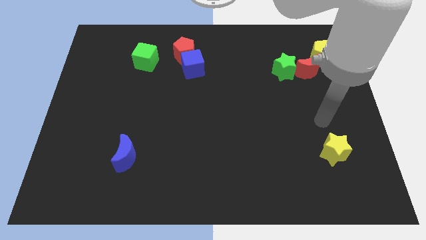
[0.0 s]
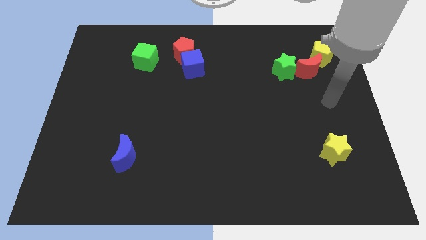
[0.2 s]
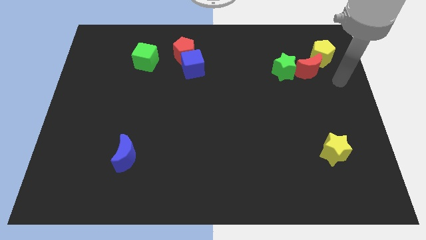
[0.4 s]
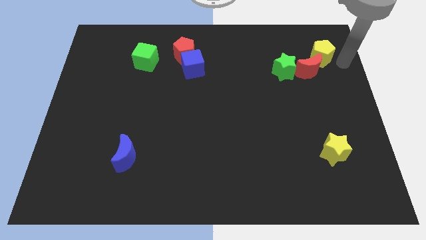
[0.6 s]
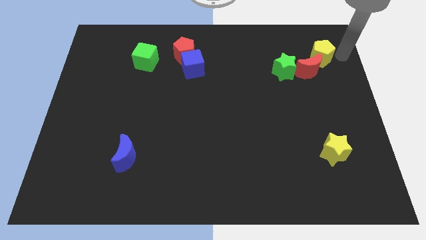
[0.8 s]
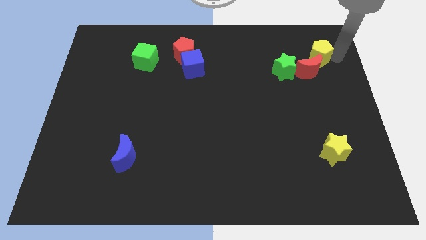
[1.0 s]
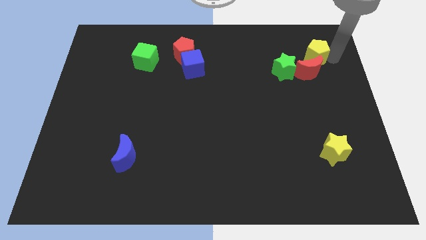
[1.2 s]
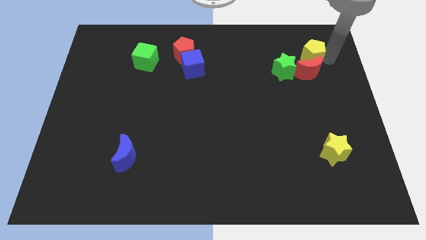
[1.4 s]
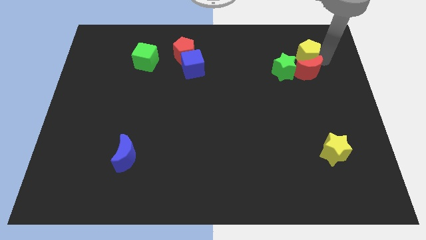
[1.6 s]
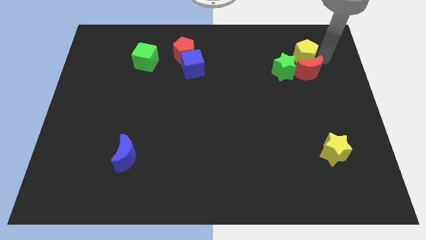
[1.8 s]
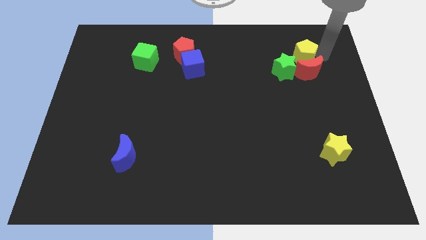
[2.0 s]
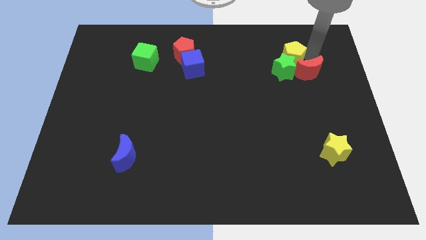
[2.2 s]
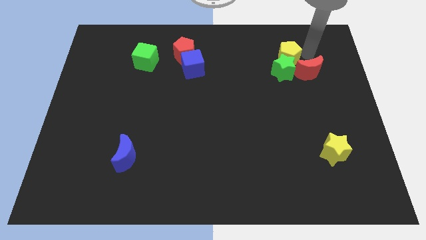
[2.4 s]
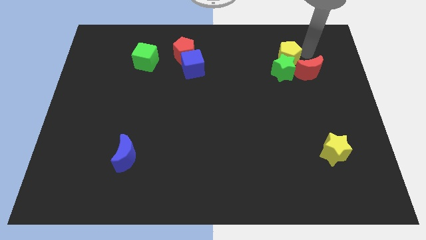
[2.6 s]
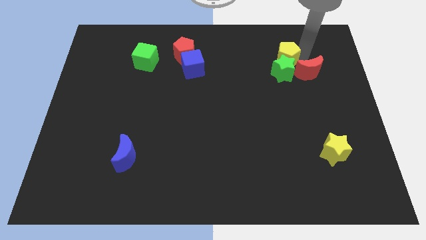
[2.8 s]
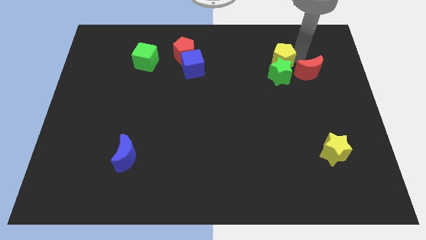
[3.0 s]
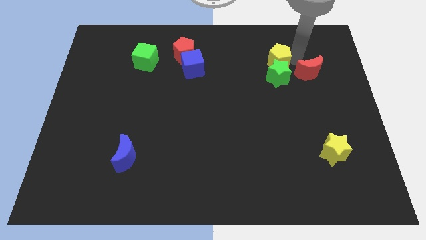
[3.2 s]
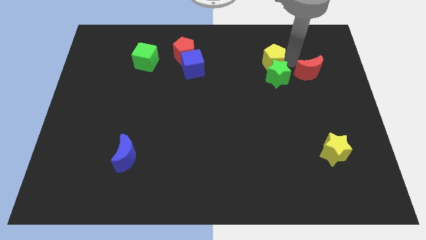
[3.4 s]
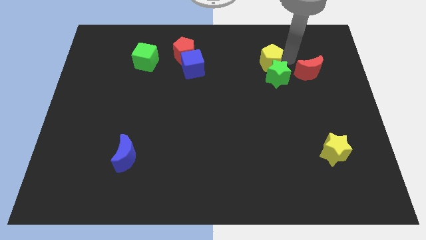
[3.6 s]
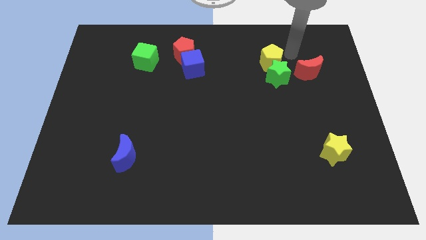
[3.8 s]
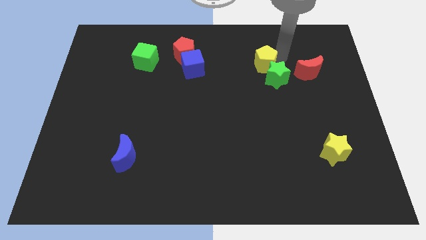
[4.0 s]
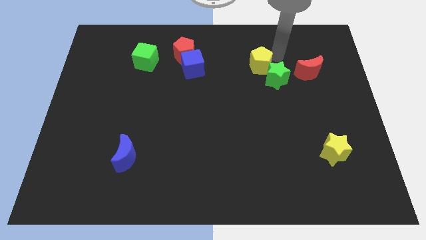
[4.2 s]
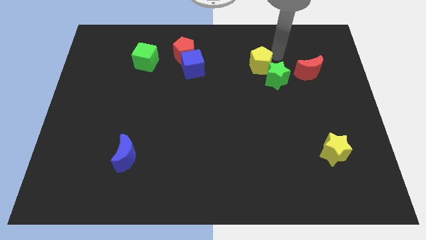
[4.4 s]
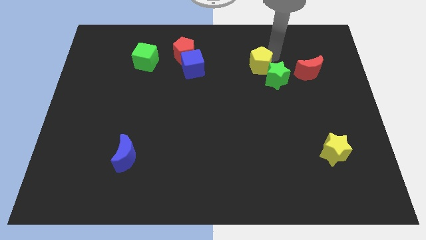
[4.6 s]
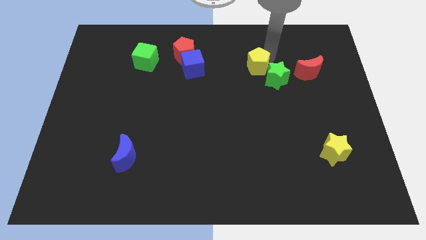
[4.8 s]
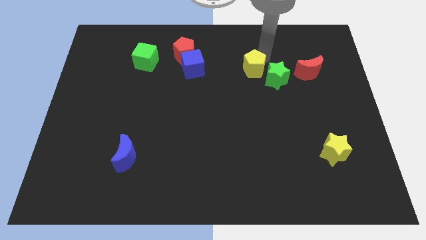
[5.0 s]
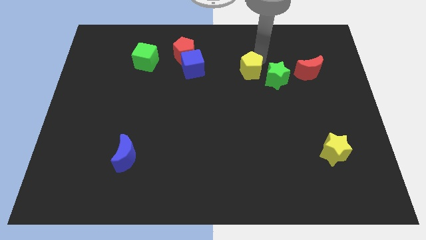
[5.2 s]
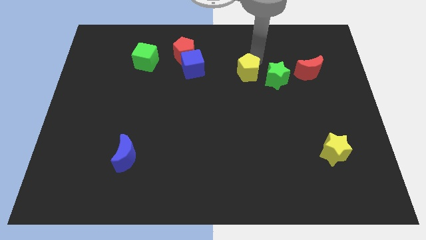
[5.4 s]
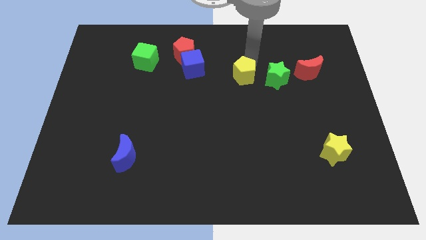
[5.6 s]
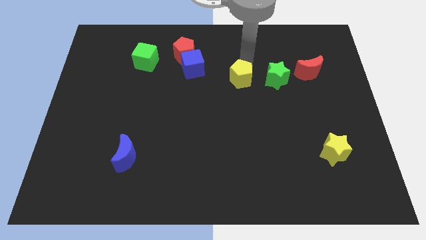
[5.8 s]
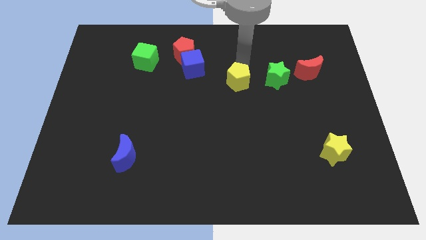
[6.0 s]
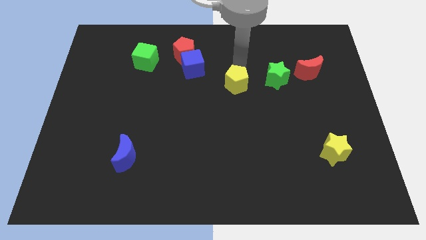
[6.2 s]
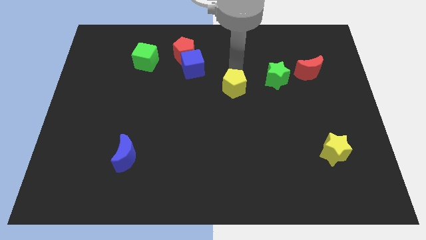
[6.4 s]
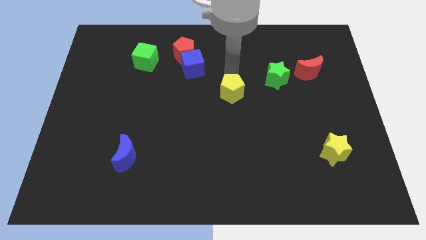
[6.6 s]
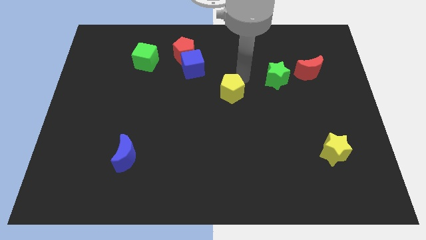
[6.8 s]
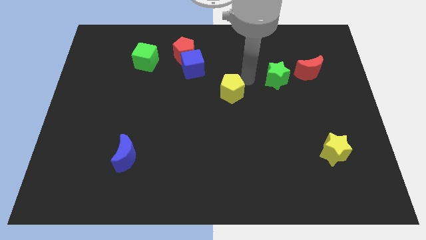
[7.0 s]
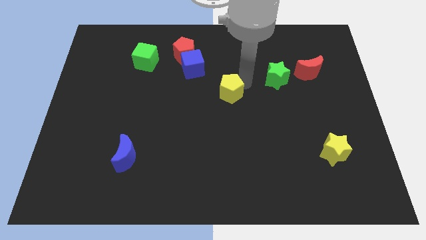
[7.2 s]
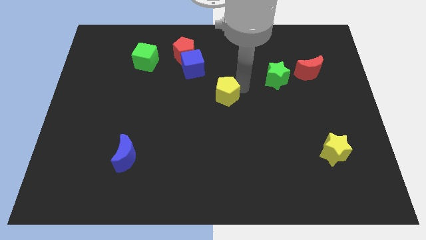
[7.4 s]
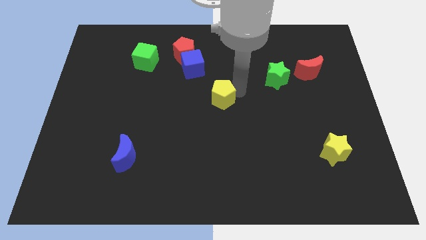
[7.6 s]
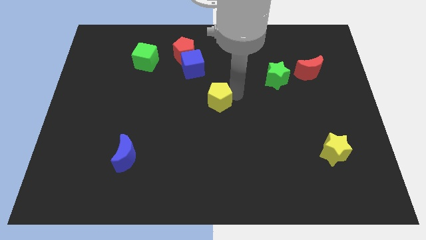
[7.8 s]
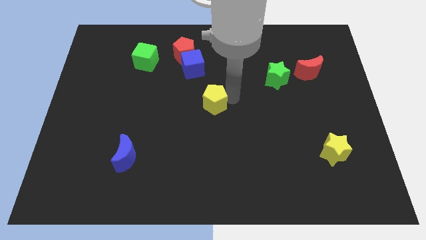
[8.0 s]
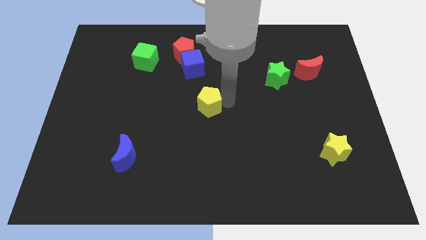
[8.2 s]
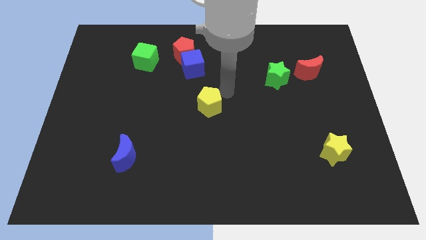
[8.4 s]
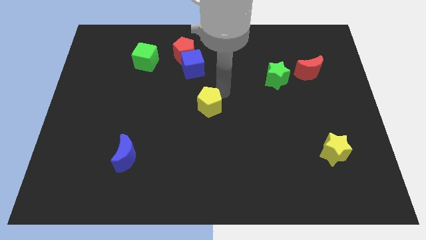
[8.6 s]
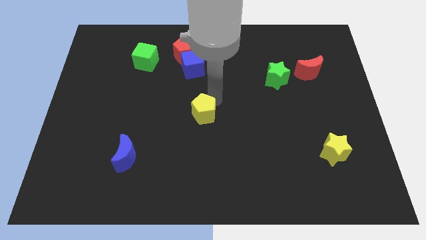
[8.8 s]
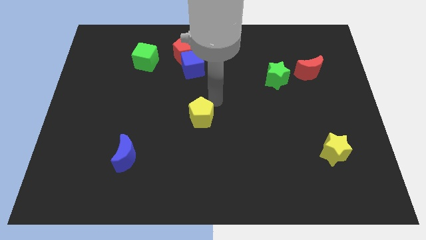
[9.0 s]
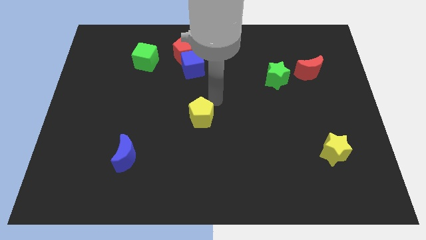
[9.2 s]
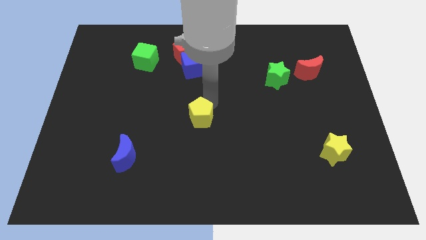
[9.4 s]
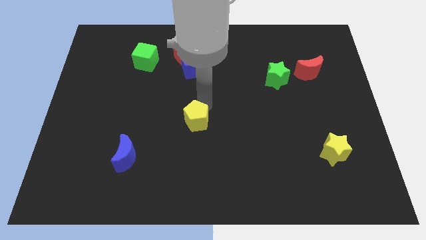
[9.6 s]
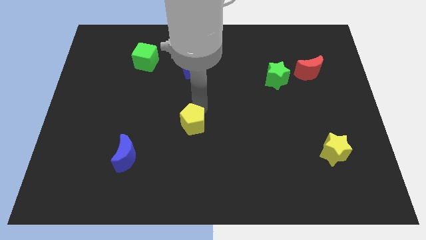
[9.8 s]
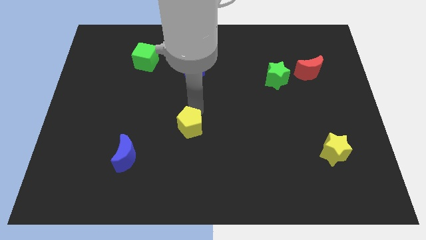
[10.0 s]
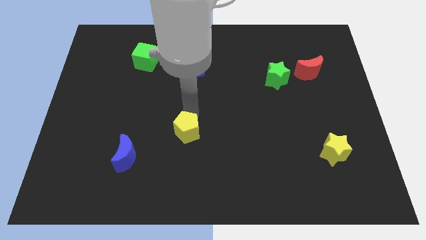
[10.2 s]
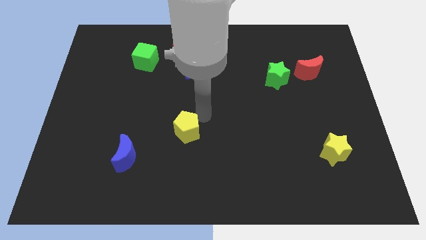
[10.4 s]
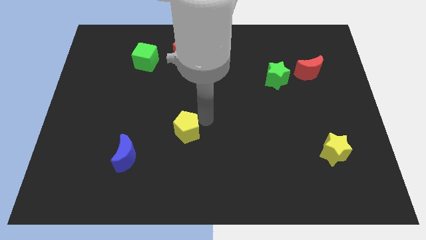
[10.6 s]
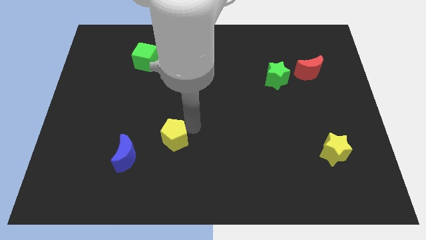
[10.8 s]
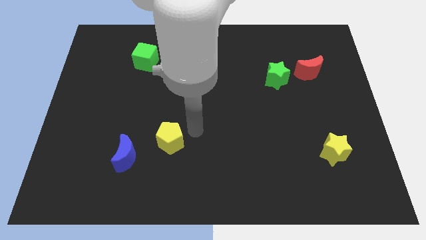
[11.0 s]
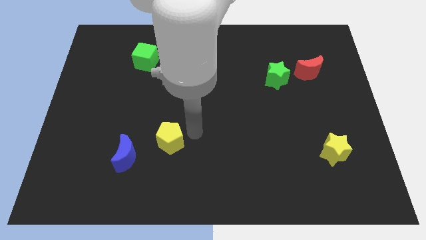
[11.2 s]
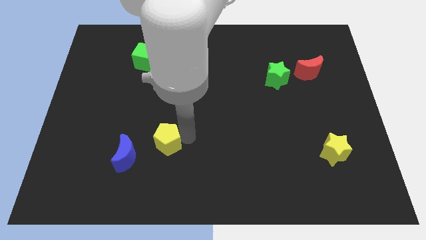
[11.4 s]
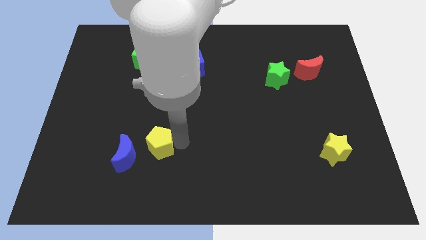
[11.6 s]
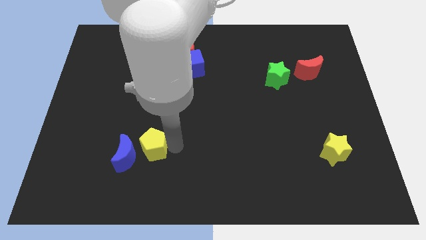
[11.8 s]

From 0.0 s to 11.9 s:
move the yellow pentagon close to the blue moon

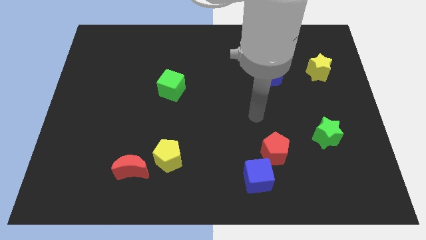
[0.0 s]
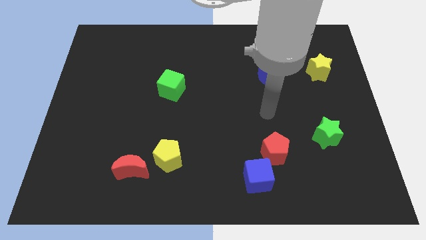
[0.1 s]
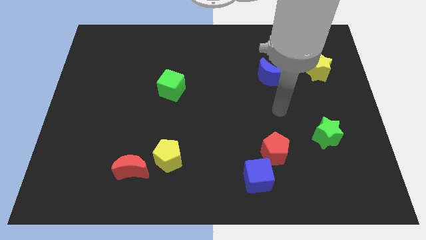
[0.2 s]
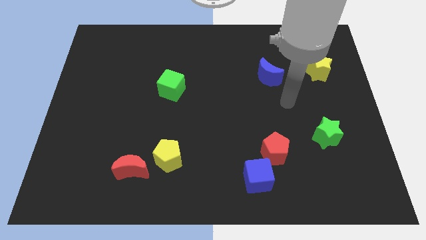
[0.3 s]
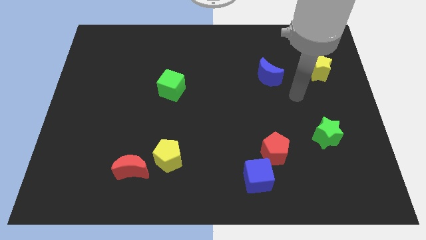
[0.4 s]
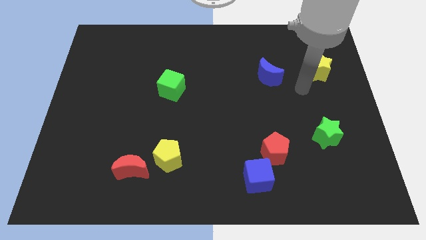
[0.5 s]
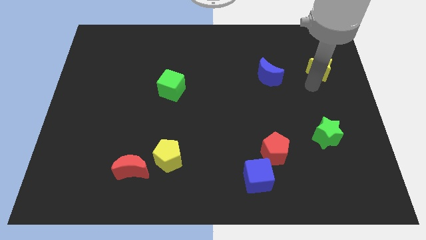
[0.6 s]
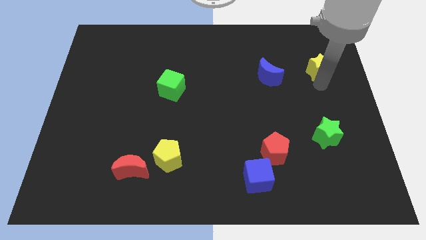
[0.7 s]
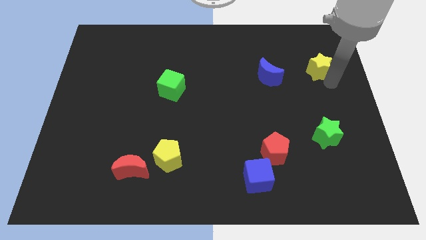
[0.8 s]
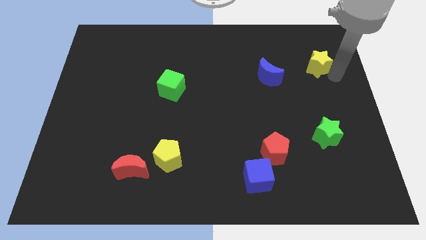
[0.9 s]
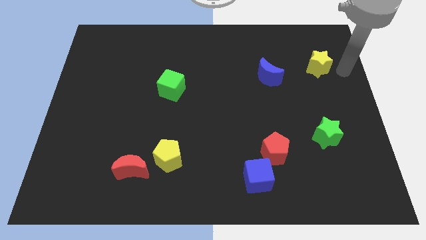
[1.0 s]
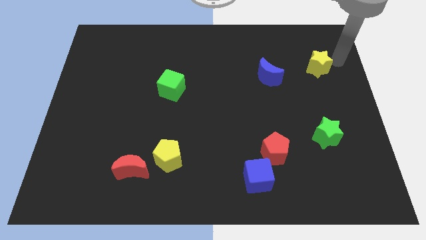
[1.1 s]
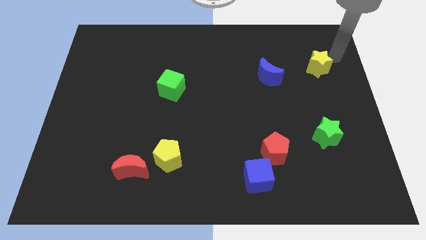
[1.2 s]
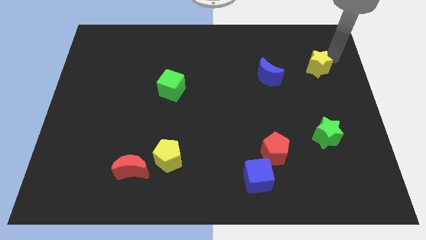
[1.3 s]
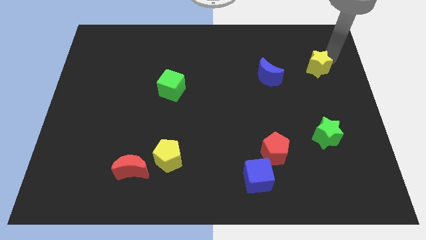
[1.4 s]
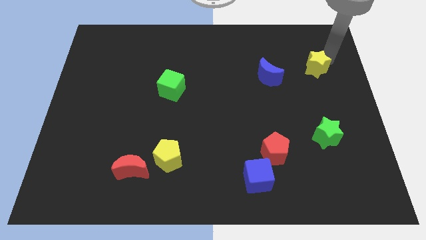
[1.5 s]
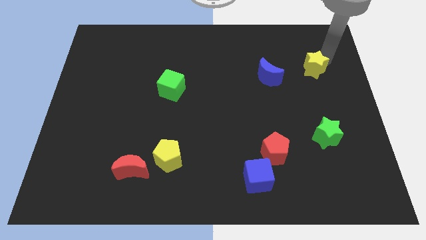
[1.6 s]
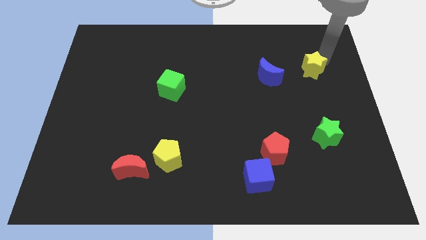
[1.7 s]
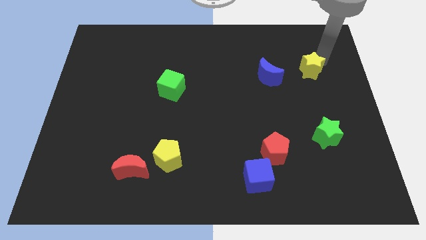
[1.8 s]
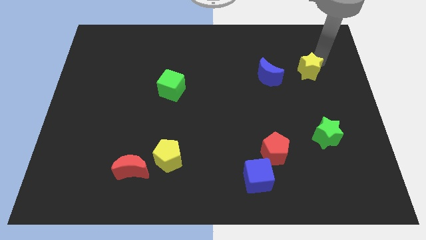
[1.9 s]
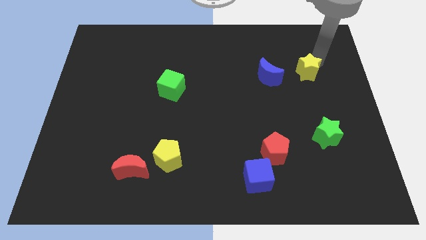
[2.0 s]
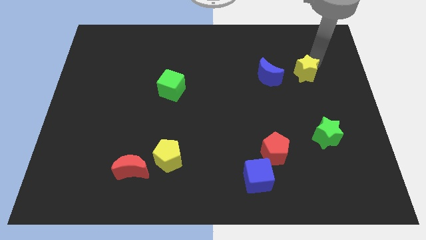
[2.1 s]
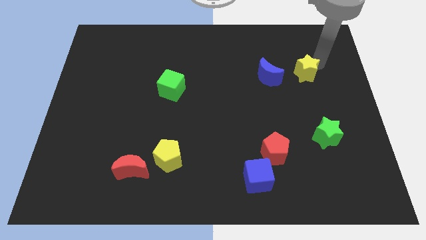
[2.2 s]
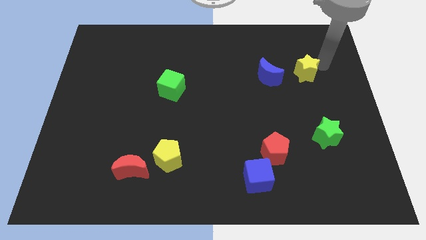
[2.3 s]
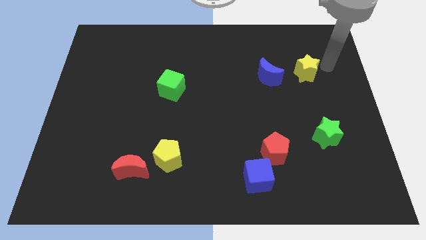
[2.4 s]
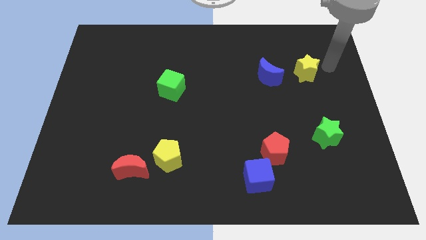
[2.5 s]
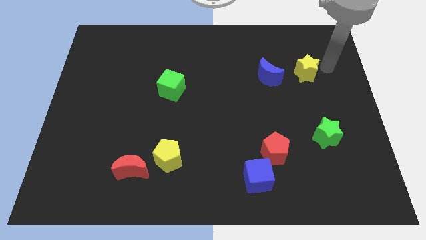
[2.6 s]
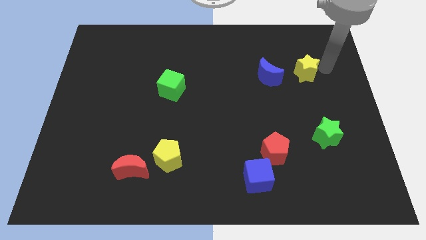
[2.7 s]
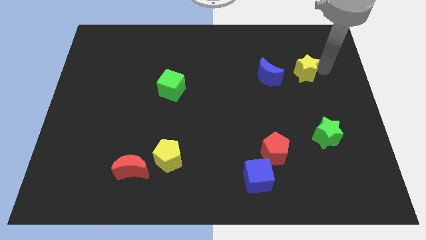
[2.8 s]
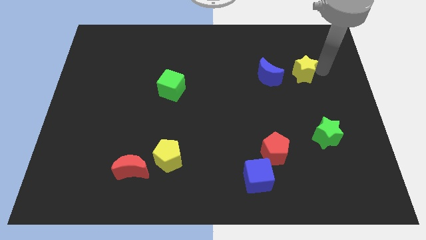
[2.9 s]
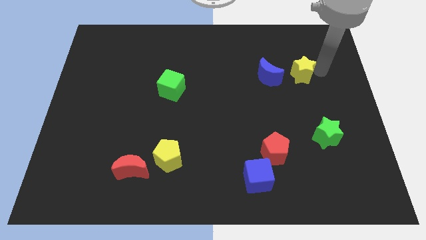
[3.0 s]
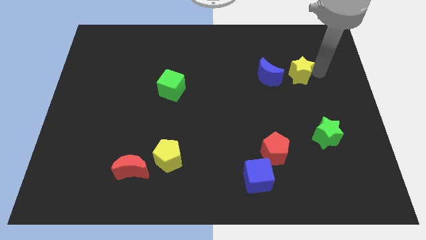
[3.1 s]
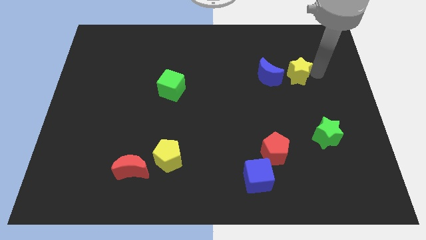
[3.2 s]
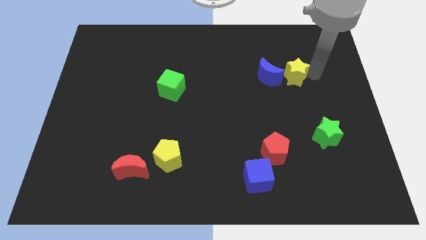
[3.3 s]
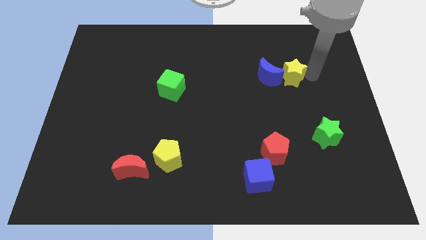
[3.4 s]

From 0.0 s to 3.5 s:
move the yellow star towards the blue moon
